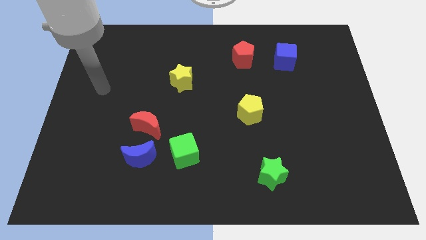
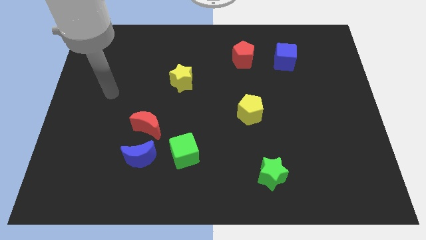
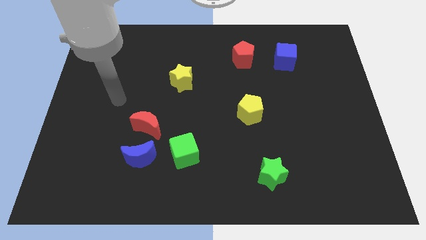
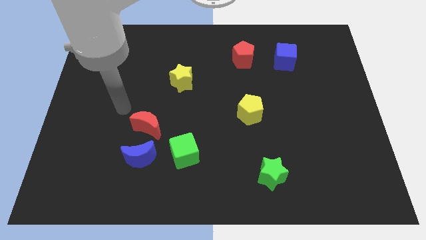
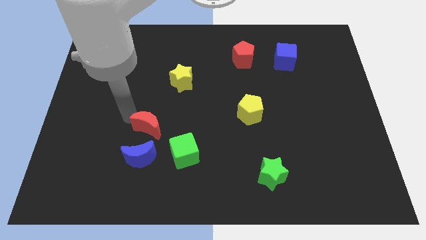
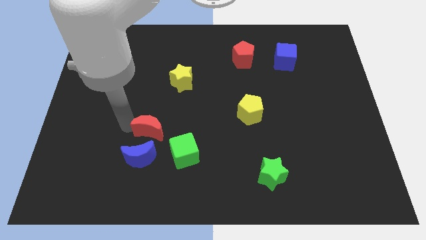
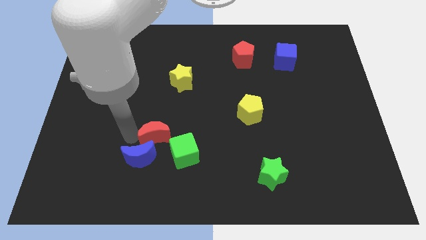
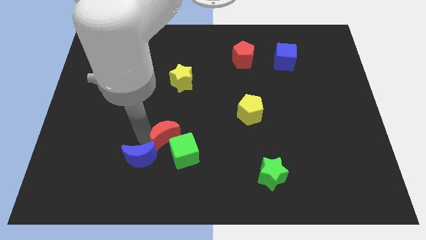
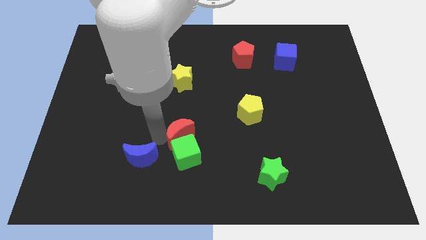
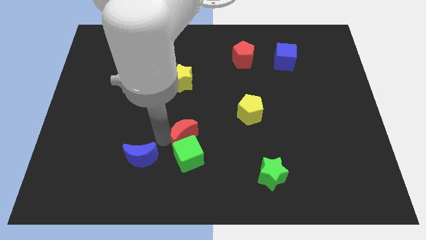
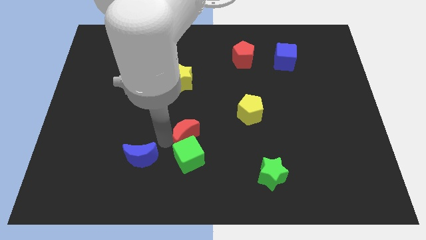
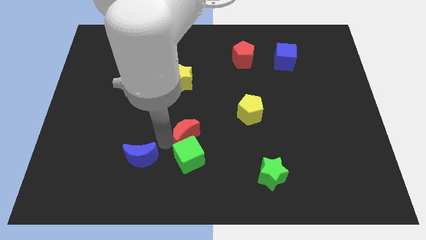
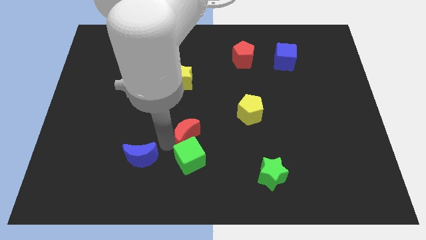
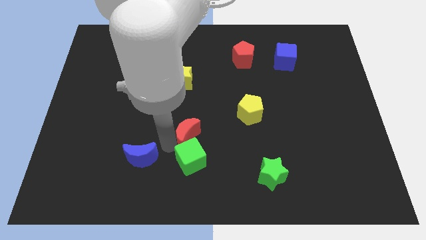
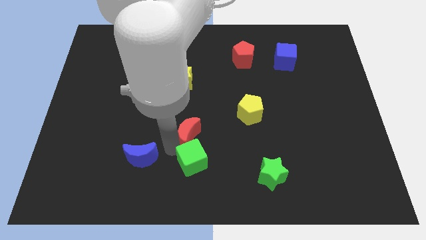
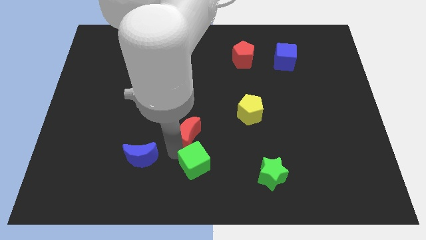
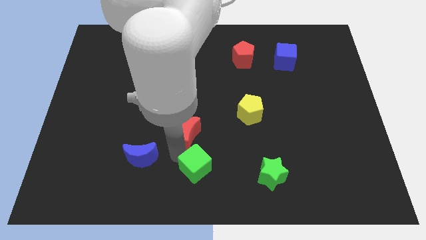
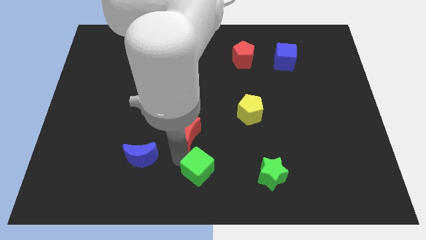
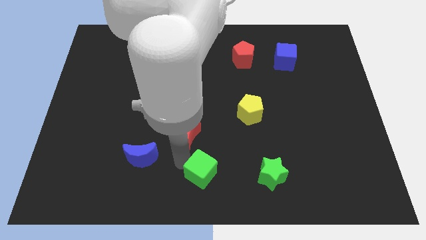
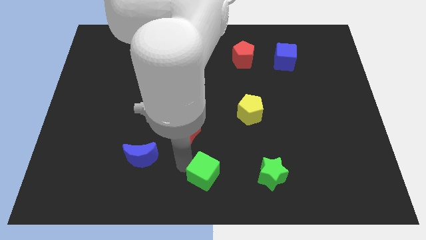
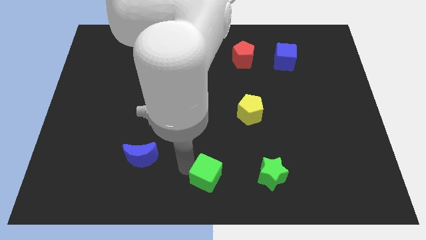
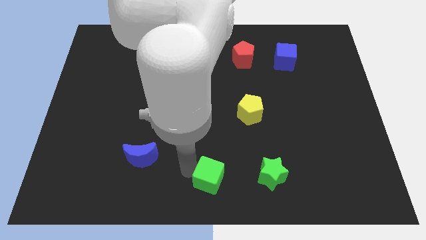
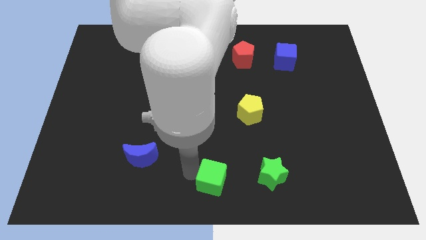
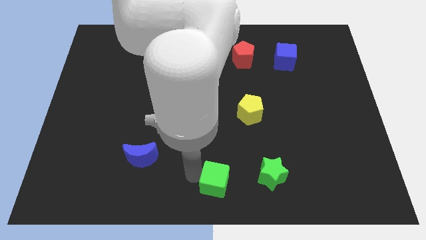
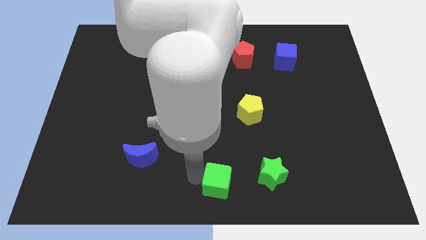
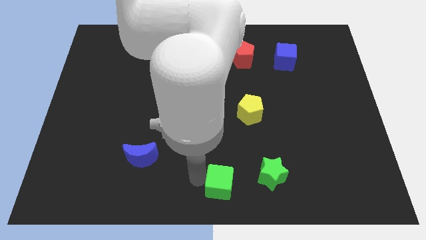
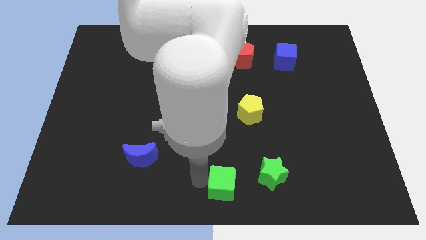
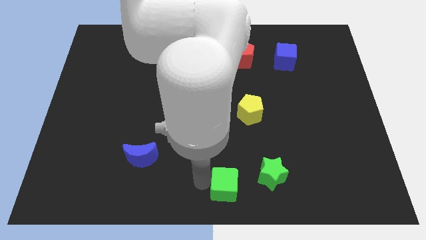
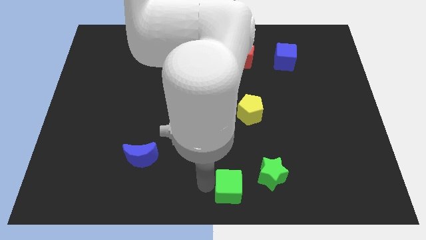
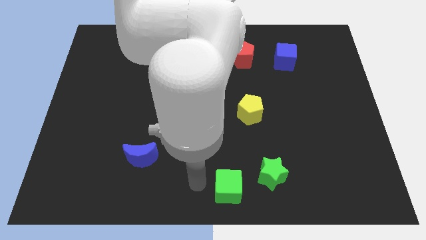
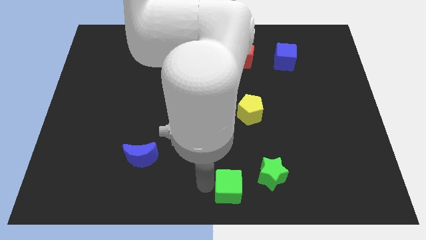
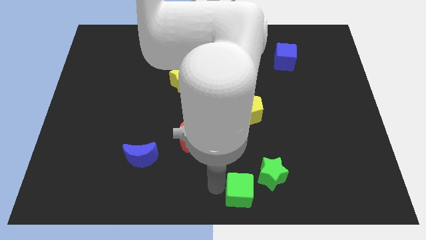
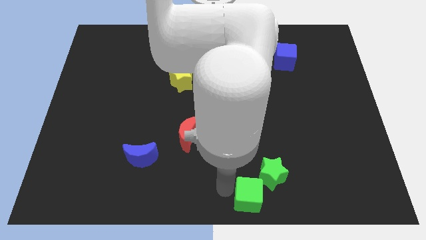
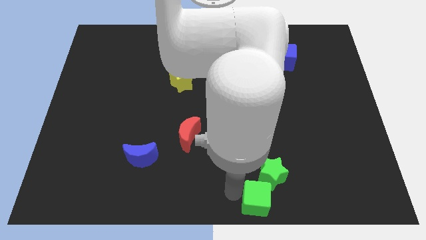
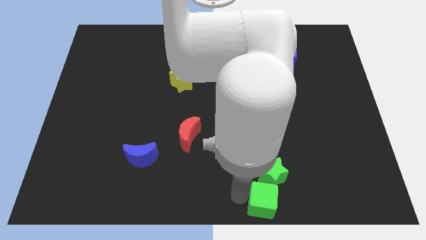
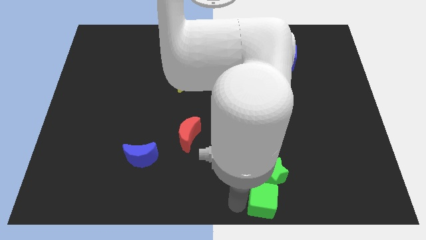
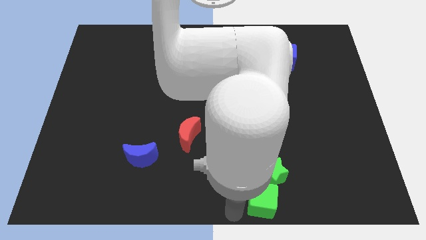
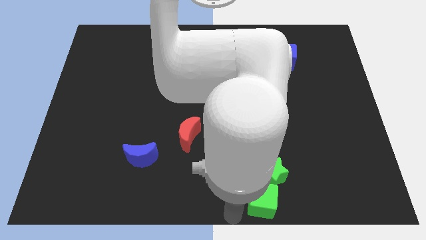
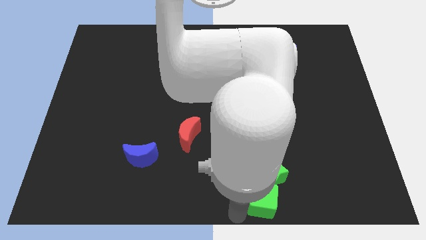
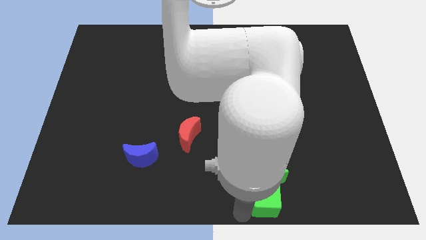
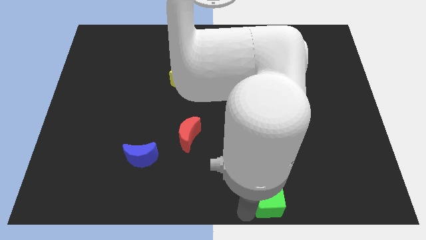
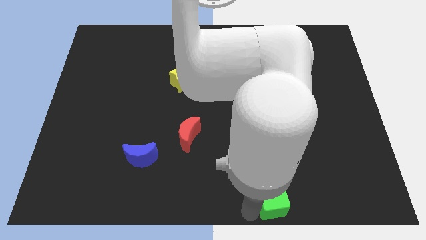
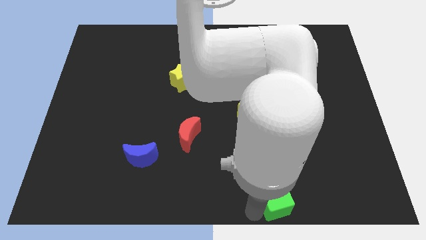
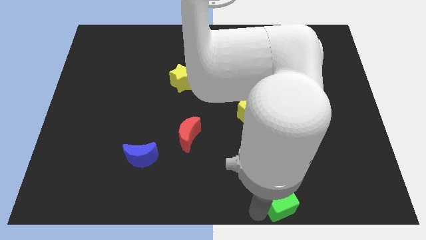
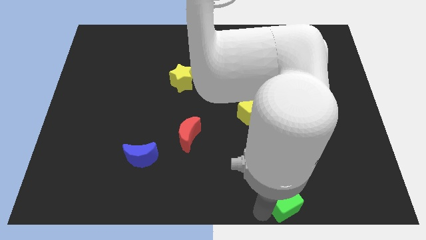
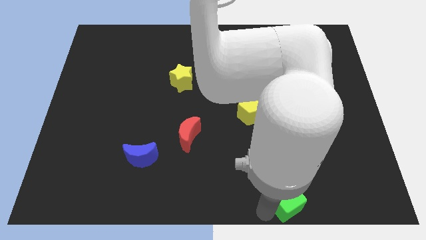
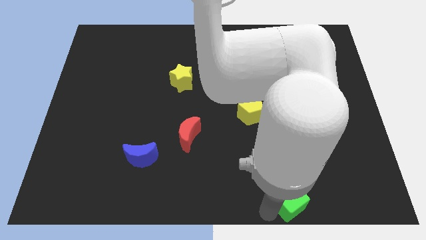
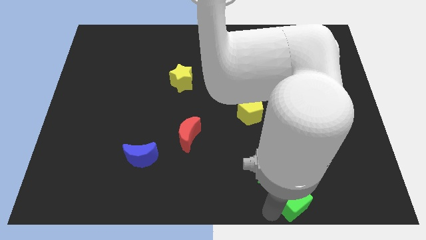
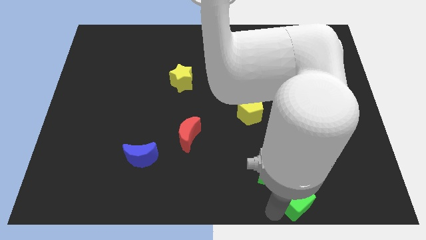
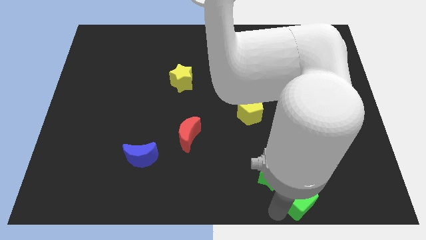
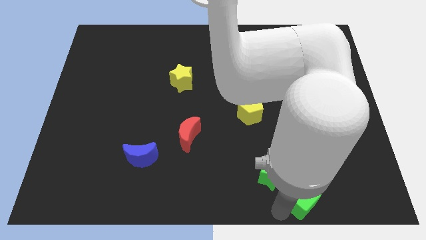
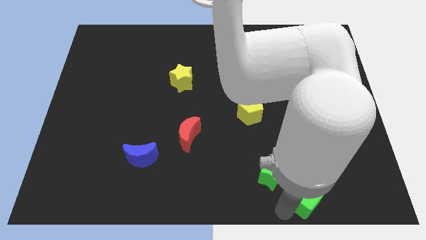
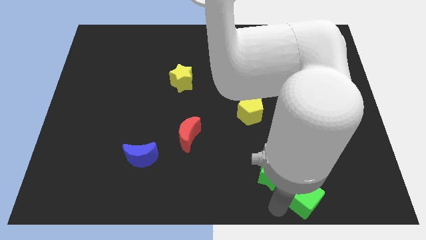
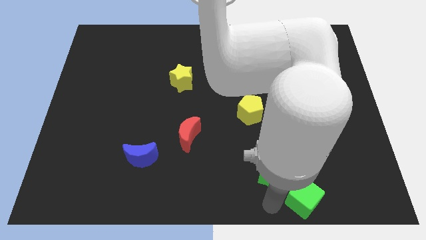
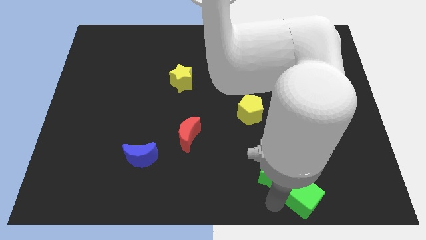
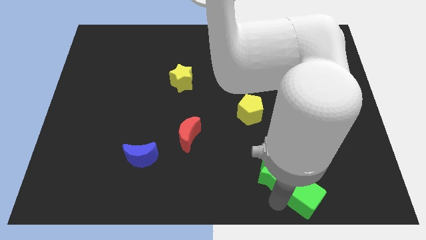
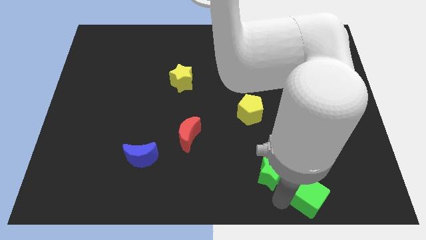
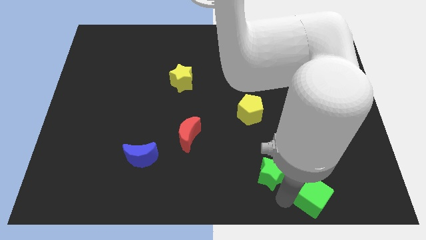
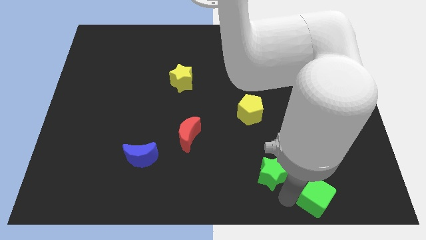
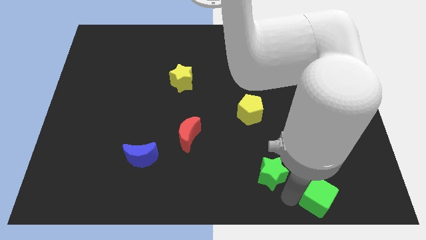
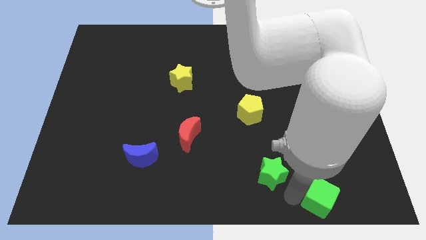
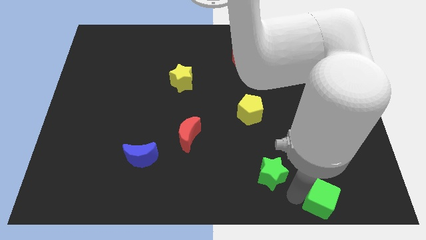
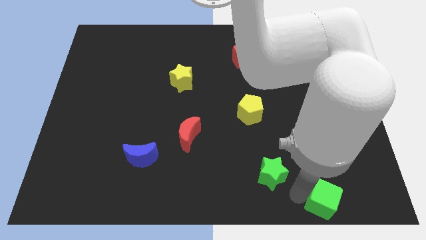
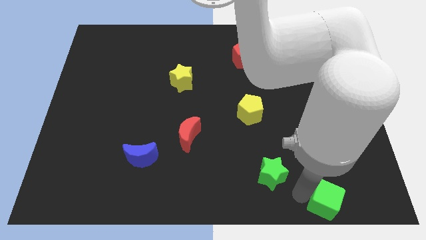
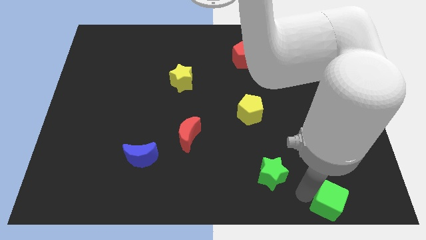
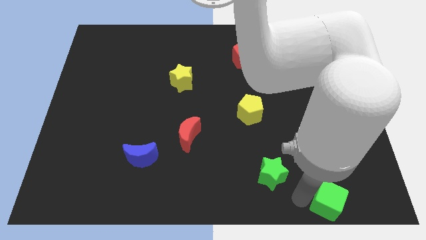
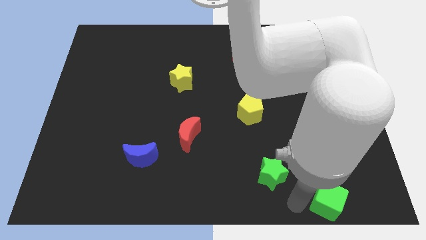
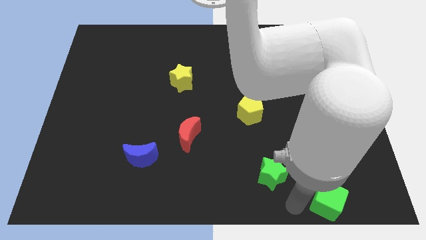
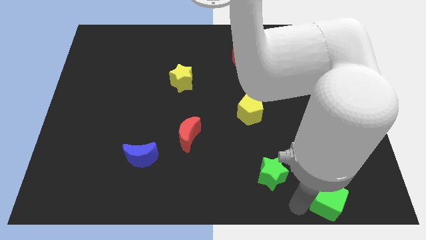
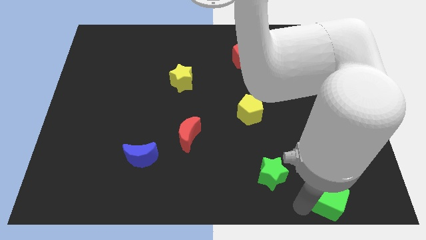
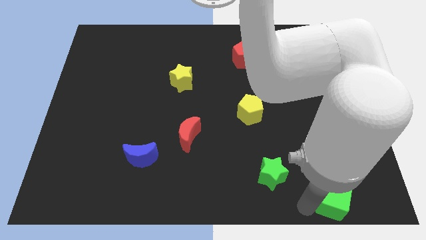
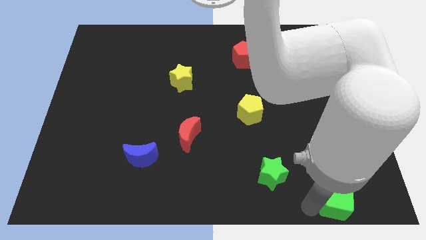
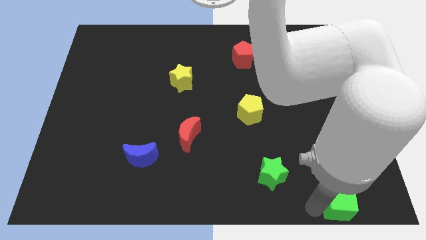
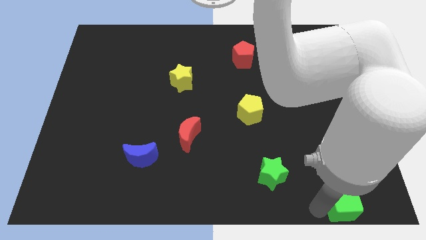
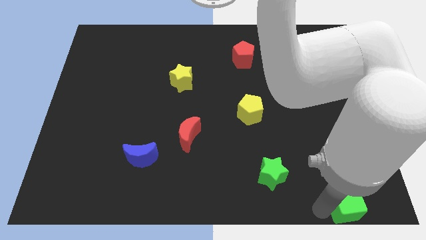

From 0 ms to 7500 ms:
move the green cube to the bottom right

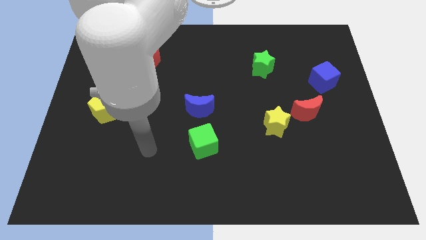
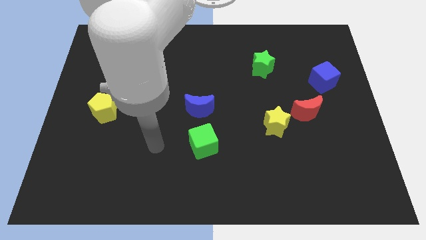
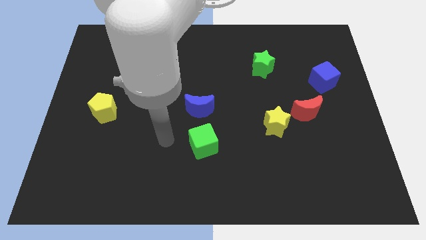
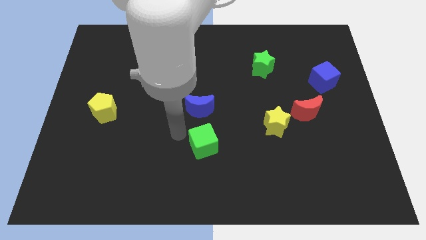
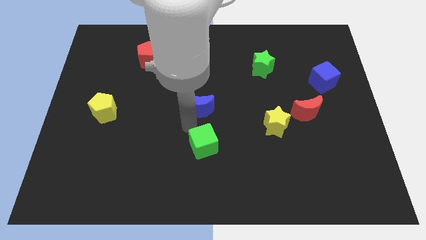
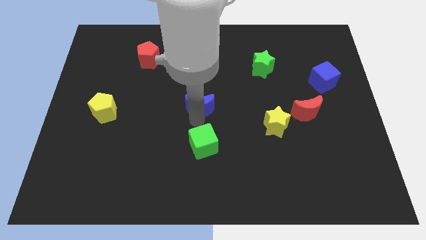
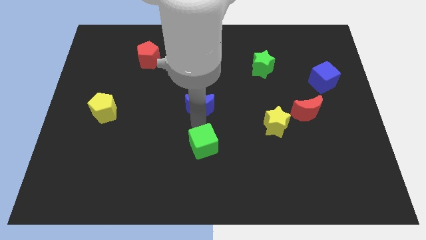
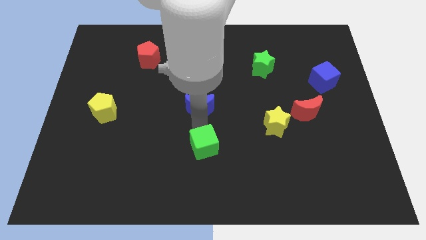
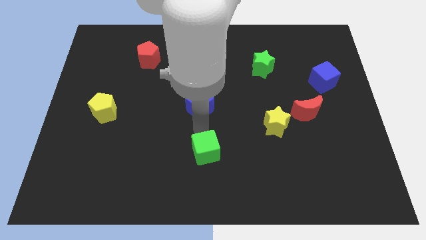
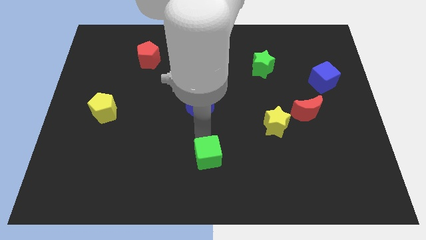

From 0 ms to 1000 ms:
push the green cube to the bottom side
